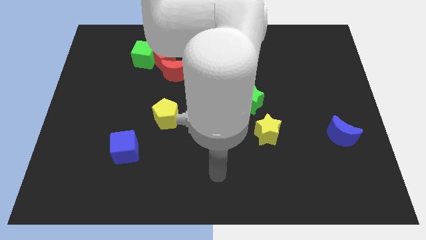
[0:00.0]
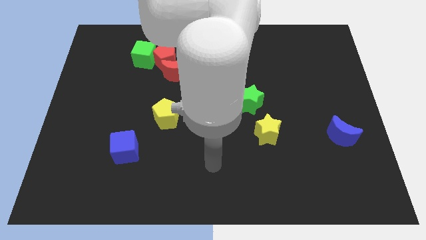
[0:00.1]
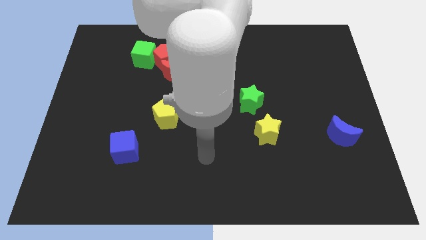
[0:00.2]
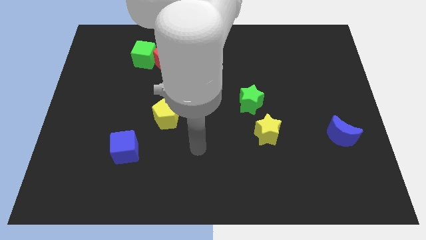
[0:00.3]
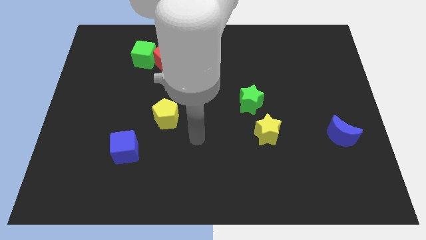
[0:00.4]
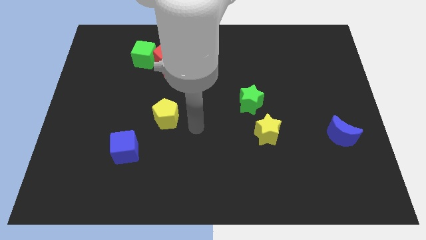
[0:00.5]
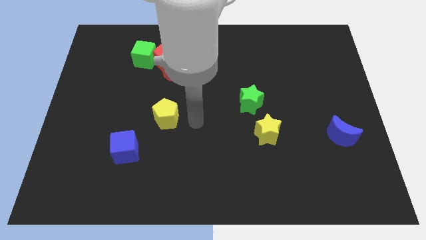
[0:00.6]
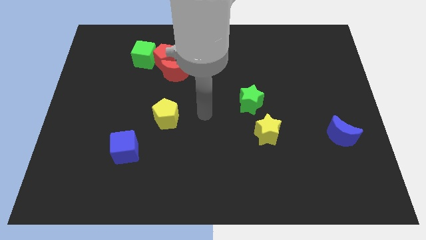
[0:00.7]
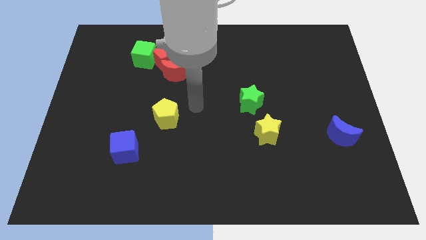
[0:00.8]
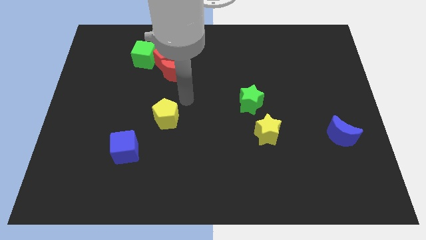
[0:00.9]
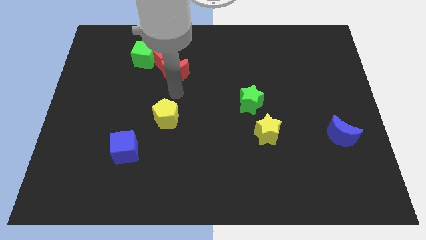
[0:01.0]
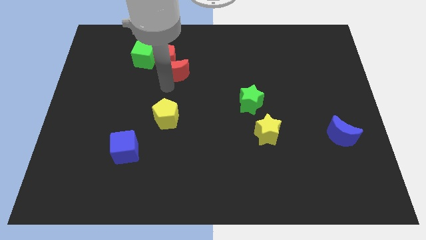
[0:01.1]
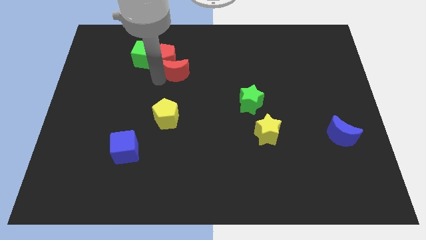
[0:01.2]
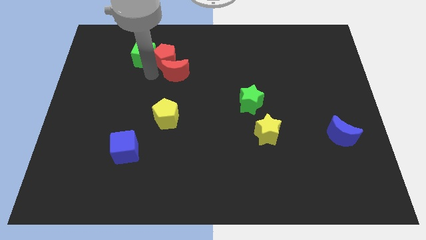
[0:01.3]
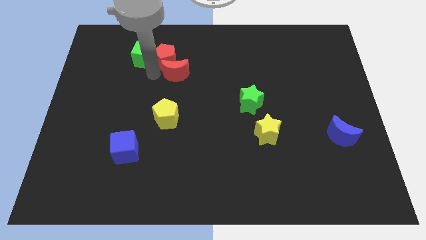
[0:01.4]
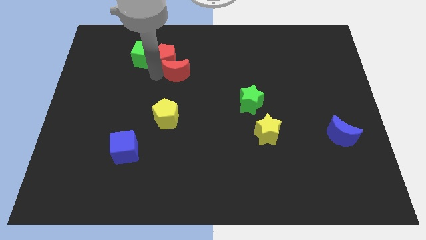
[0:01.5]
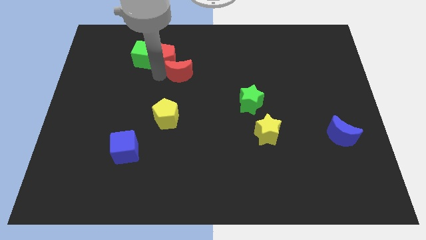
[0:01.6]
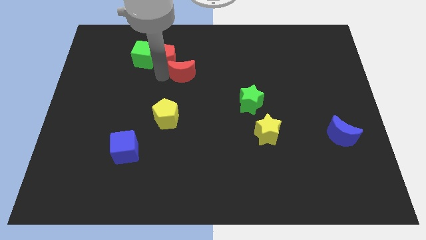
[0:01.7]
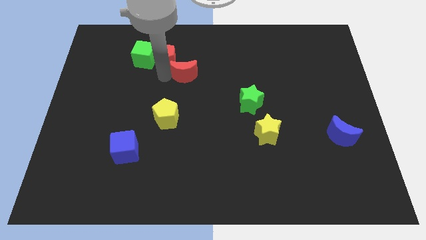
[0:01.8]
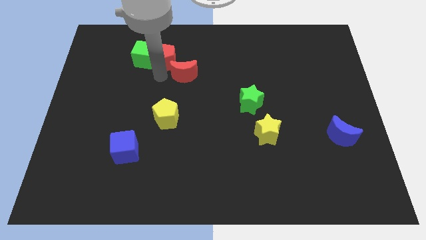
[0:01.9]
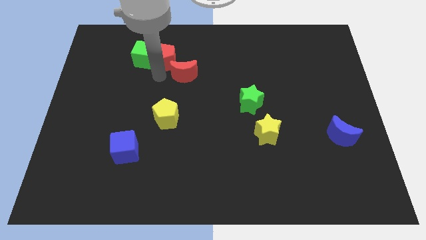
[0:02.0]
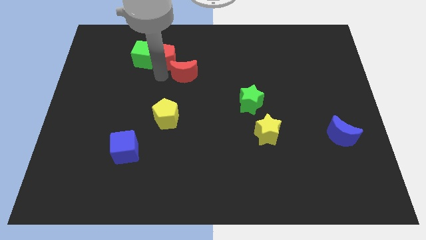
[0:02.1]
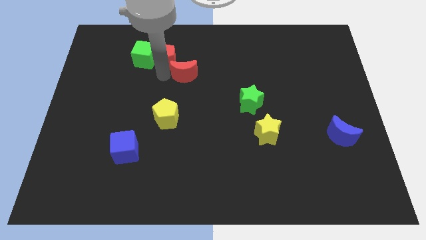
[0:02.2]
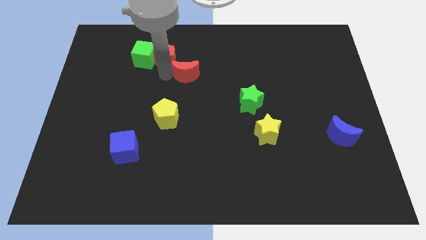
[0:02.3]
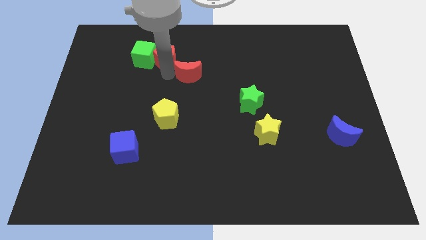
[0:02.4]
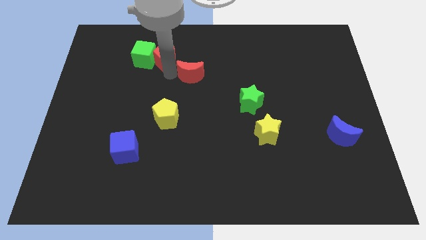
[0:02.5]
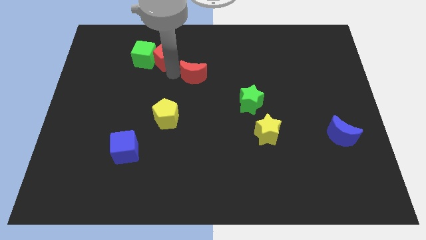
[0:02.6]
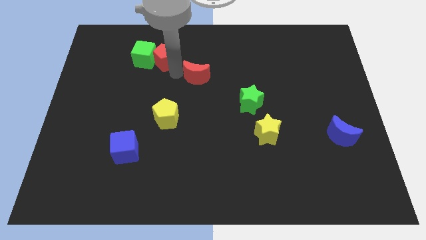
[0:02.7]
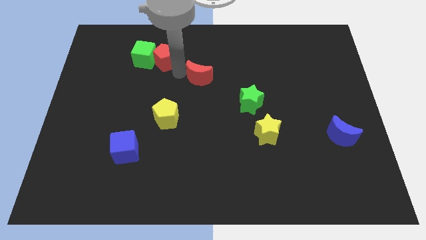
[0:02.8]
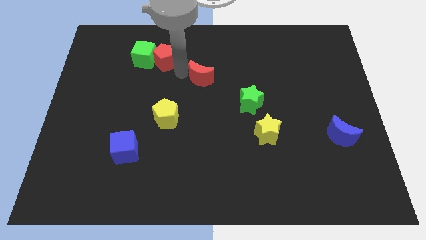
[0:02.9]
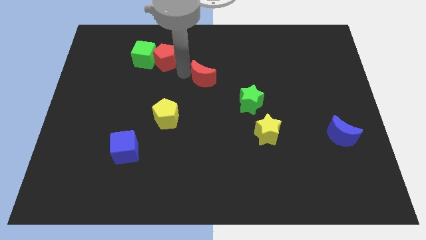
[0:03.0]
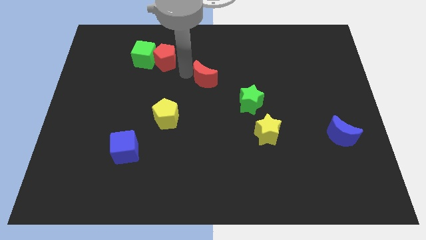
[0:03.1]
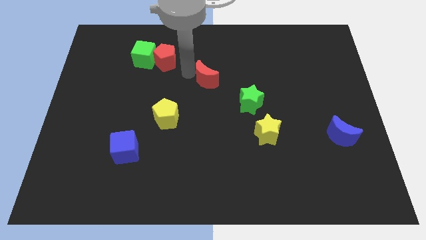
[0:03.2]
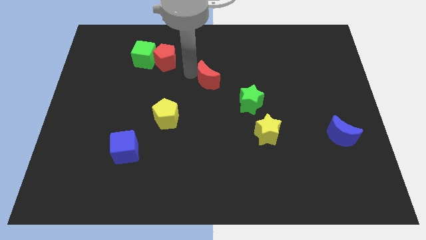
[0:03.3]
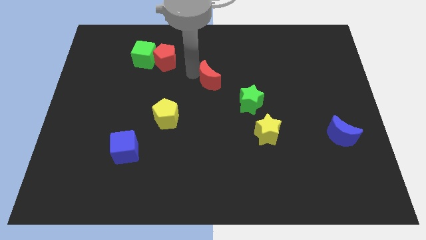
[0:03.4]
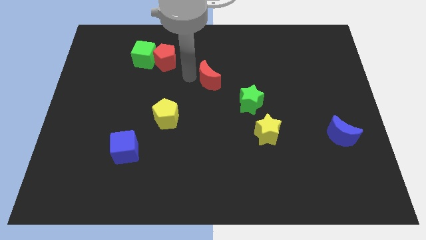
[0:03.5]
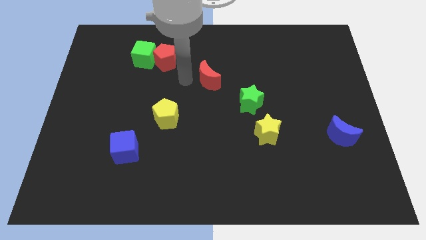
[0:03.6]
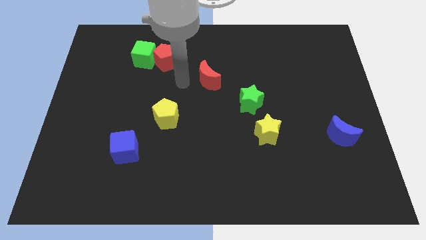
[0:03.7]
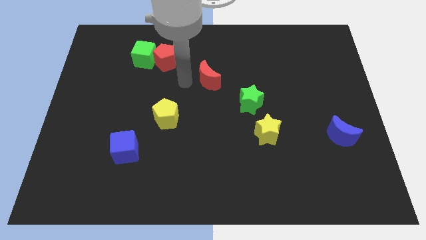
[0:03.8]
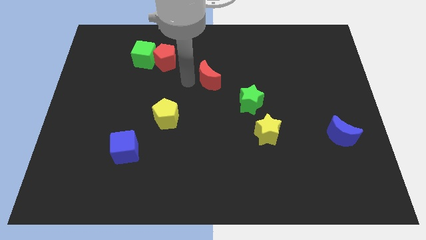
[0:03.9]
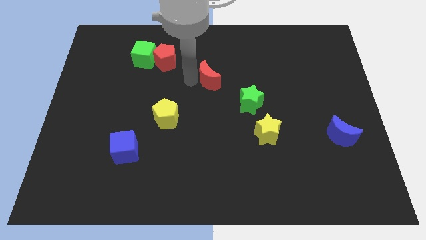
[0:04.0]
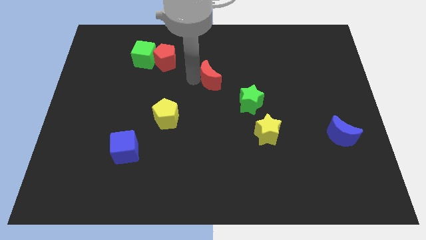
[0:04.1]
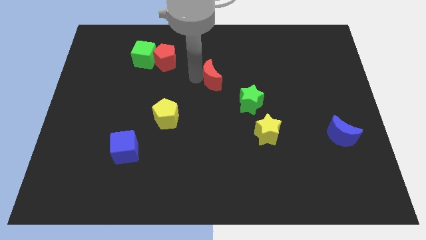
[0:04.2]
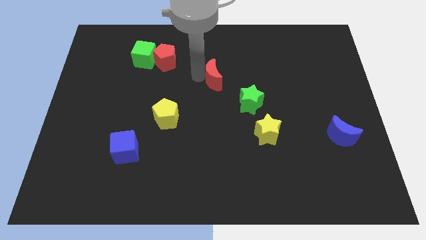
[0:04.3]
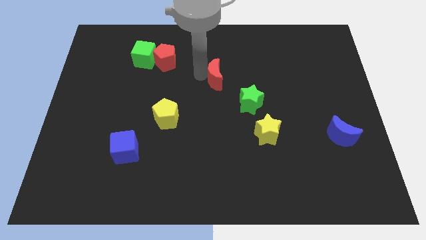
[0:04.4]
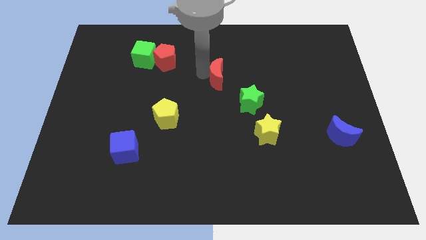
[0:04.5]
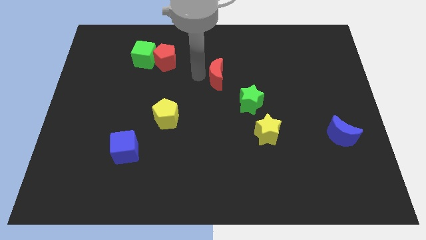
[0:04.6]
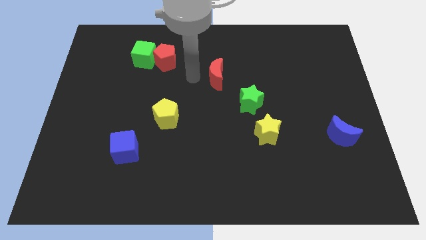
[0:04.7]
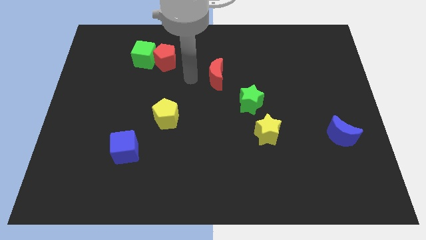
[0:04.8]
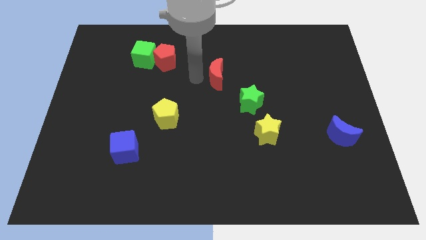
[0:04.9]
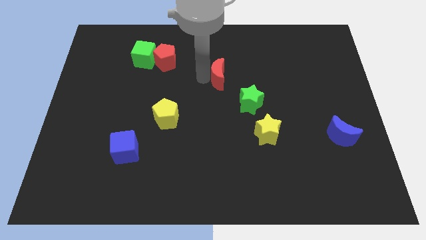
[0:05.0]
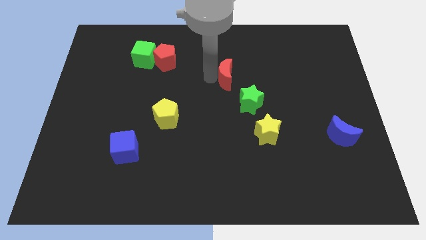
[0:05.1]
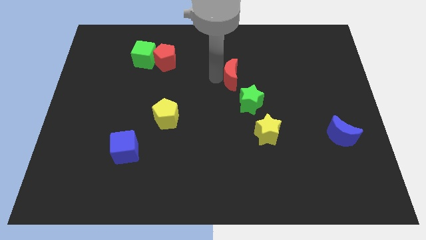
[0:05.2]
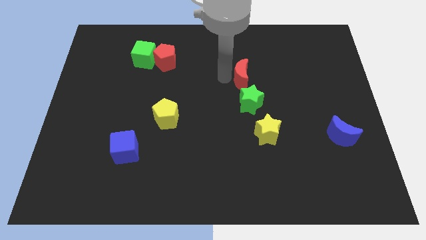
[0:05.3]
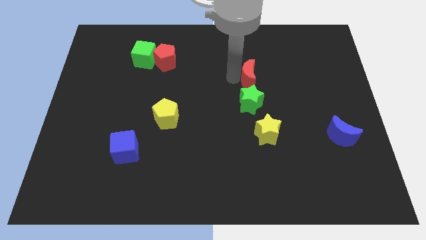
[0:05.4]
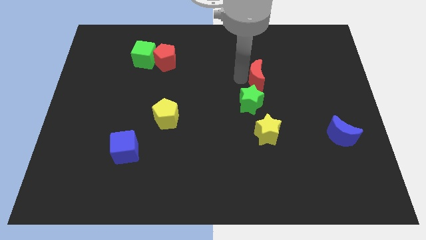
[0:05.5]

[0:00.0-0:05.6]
move the red moon right

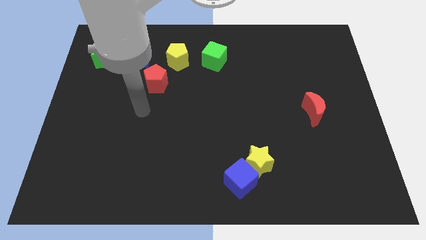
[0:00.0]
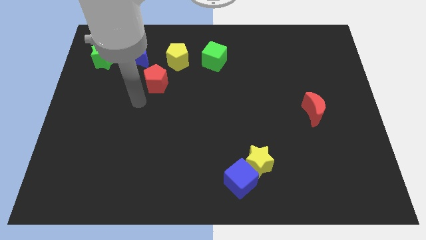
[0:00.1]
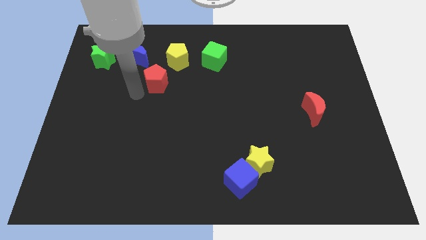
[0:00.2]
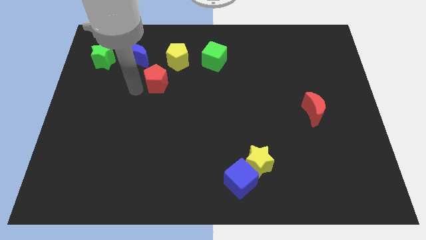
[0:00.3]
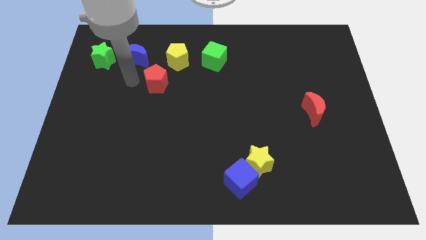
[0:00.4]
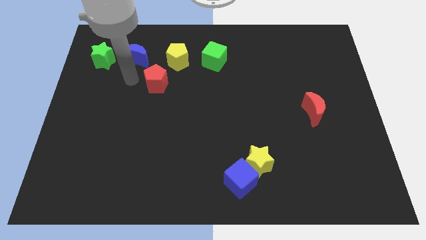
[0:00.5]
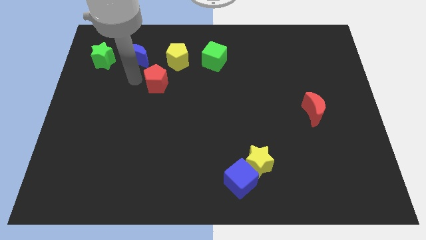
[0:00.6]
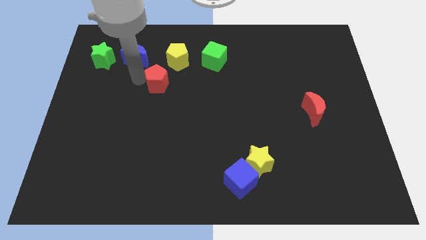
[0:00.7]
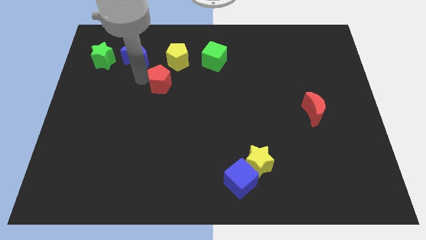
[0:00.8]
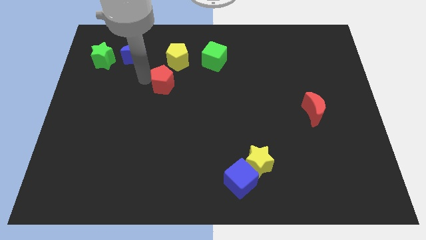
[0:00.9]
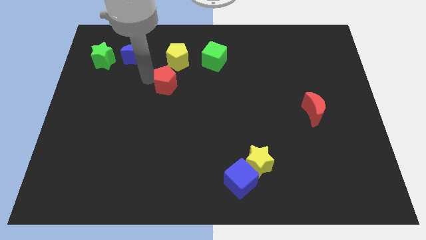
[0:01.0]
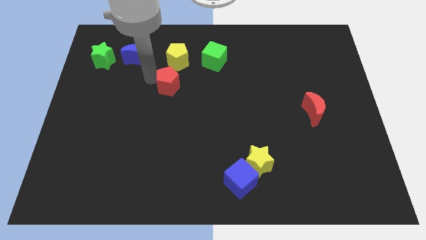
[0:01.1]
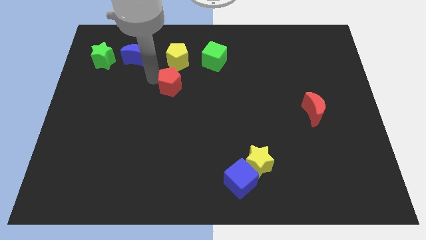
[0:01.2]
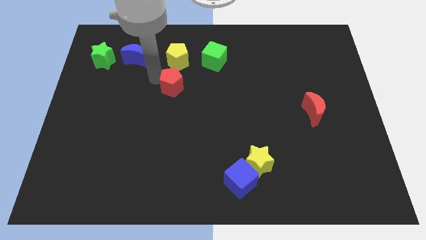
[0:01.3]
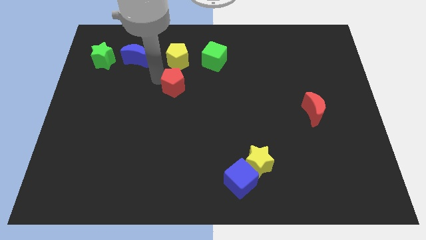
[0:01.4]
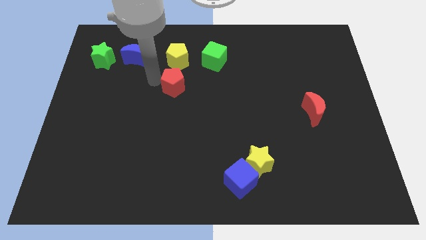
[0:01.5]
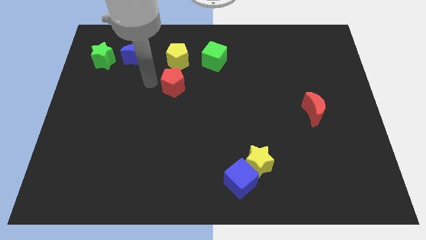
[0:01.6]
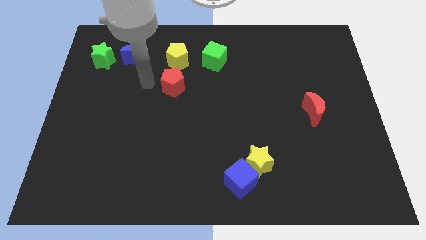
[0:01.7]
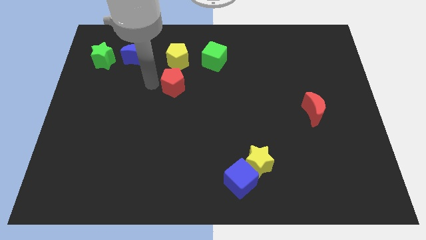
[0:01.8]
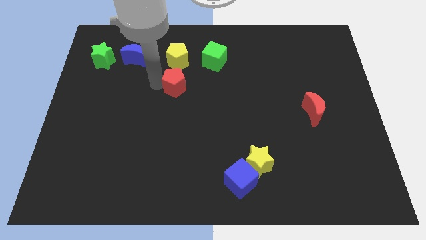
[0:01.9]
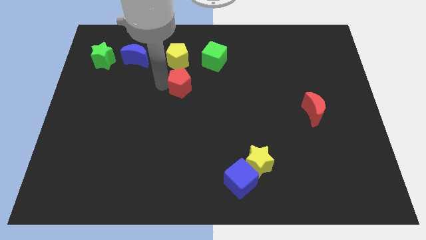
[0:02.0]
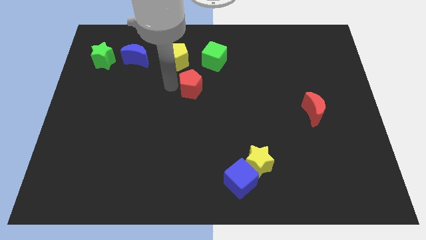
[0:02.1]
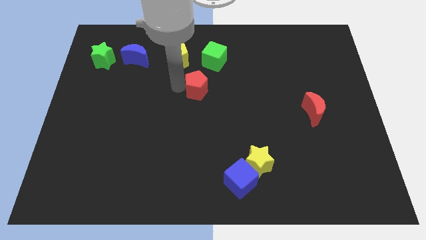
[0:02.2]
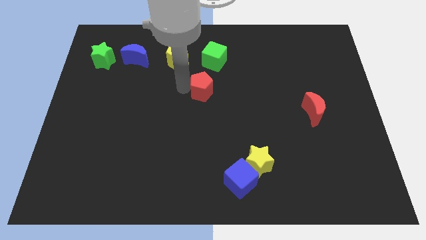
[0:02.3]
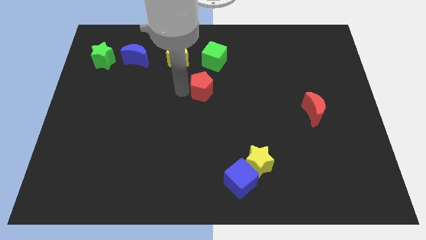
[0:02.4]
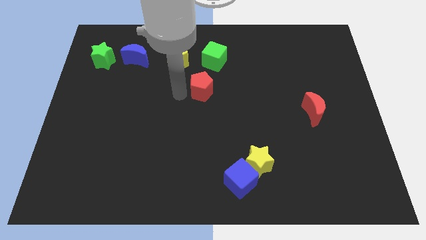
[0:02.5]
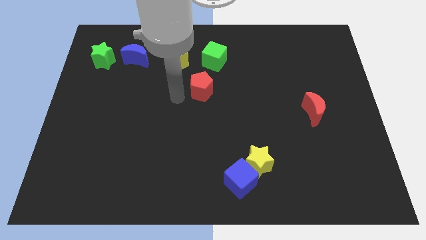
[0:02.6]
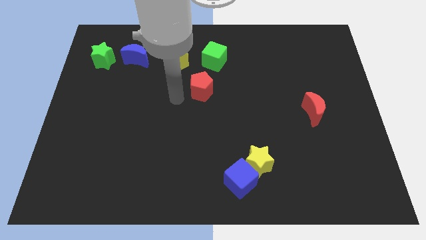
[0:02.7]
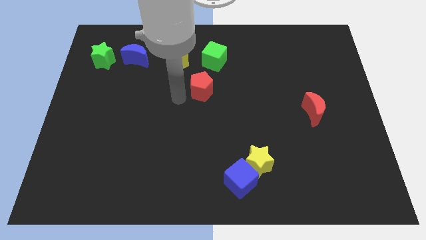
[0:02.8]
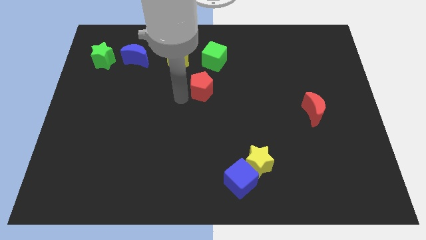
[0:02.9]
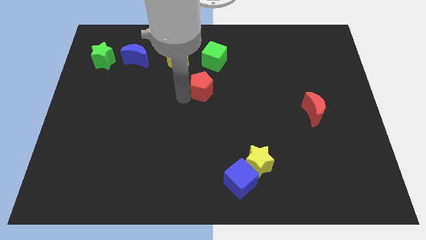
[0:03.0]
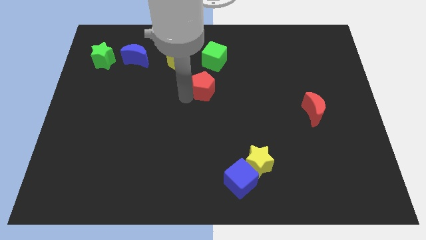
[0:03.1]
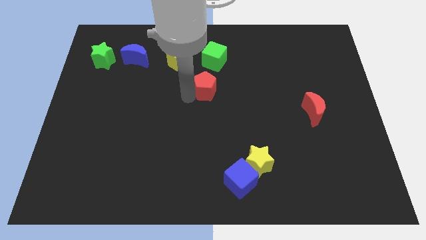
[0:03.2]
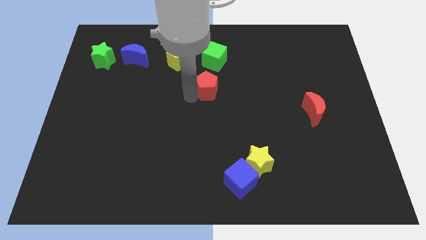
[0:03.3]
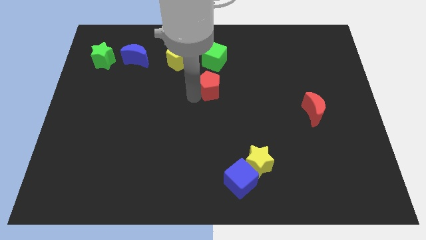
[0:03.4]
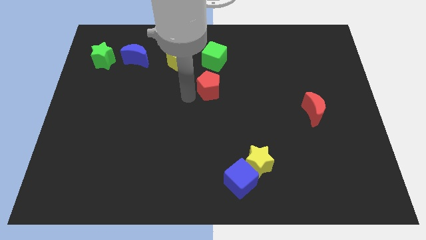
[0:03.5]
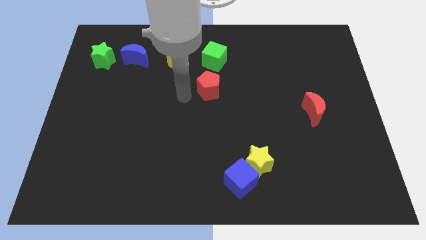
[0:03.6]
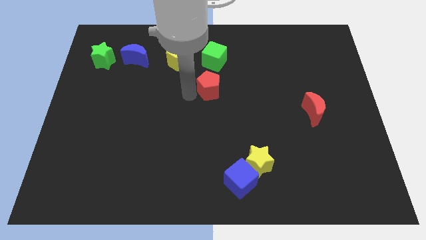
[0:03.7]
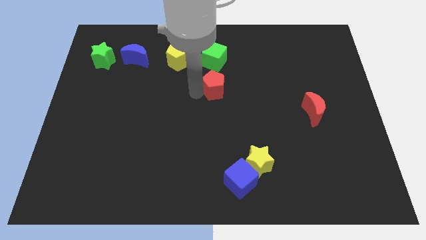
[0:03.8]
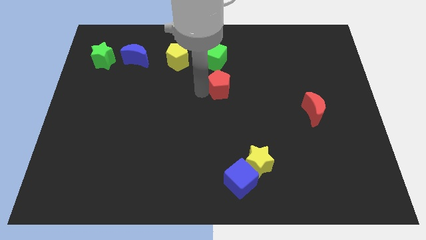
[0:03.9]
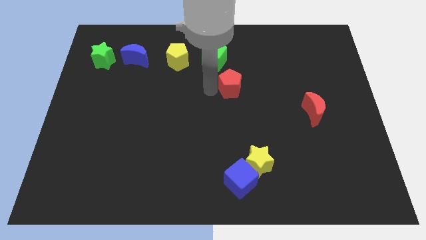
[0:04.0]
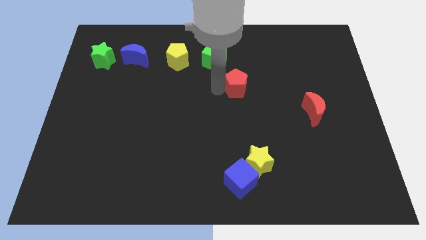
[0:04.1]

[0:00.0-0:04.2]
push the red pentagon right
